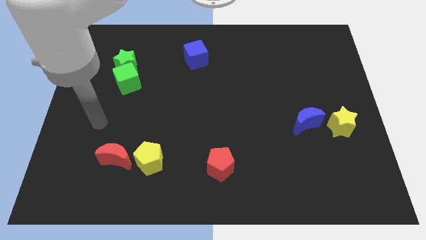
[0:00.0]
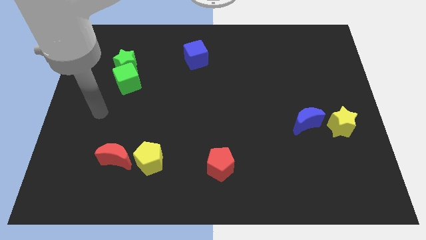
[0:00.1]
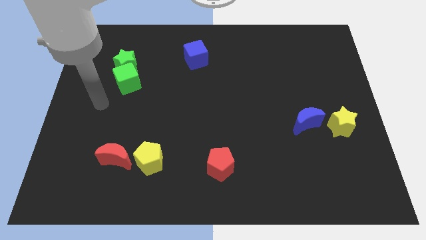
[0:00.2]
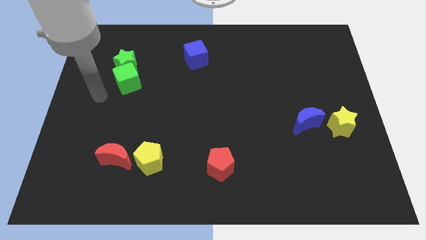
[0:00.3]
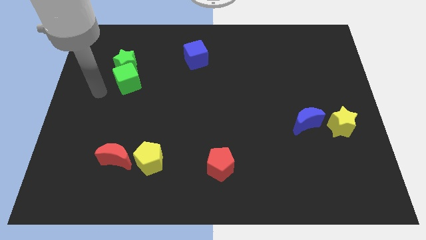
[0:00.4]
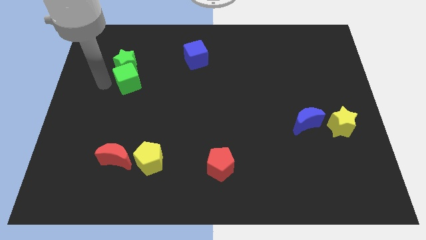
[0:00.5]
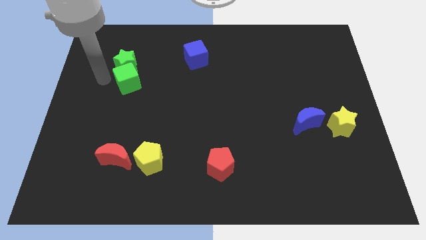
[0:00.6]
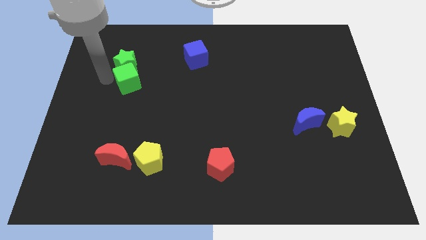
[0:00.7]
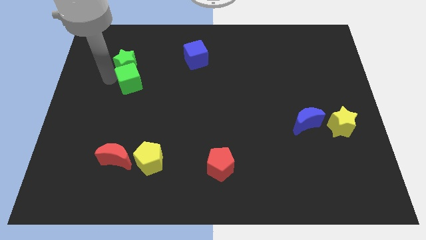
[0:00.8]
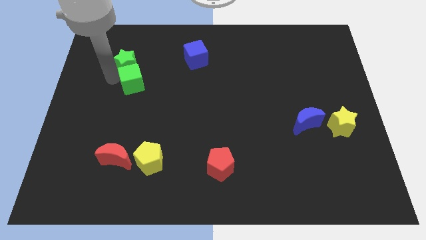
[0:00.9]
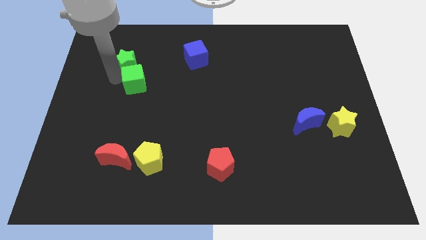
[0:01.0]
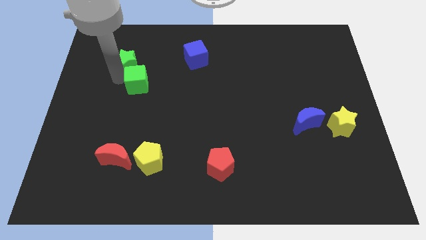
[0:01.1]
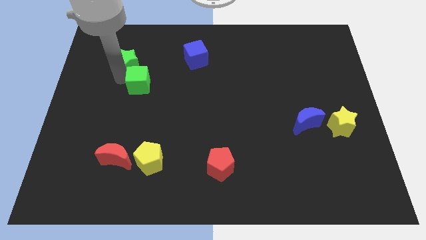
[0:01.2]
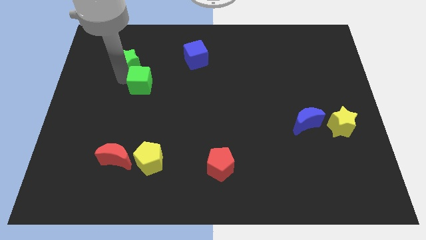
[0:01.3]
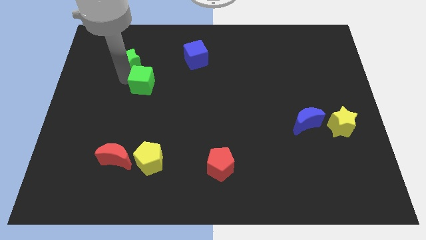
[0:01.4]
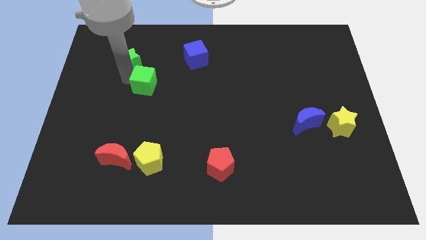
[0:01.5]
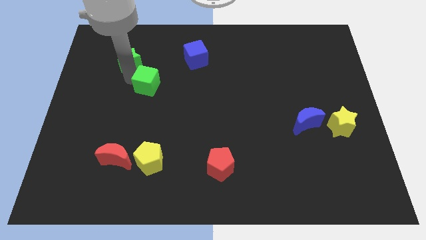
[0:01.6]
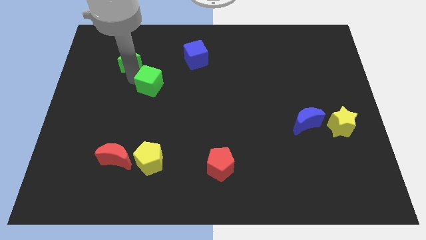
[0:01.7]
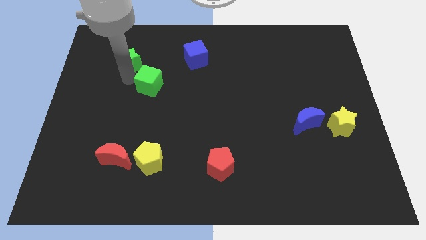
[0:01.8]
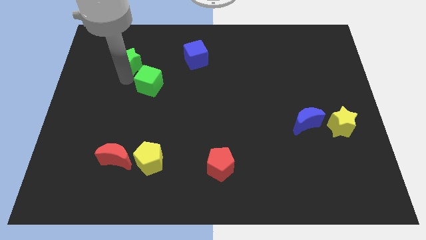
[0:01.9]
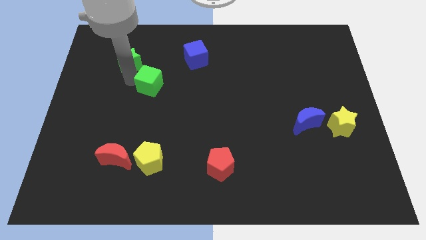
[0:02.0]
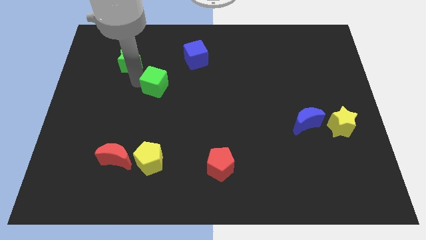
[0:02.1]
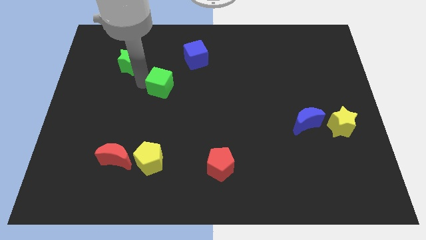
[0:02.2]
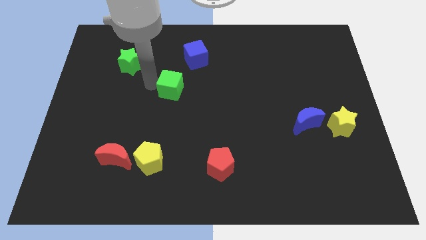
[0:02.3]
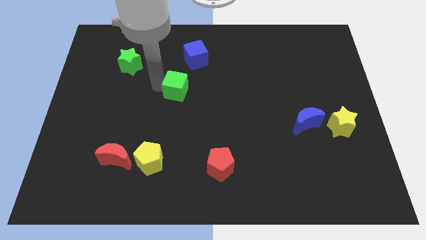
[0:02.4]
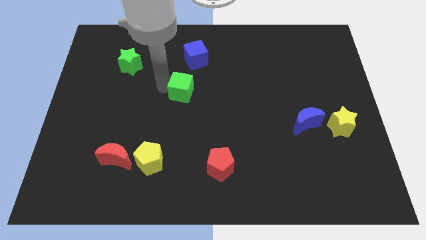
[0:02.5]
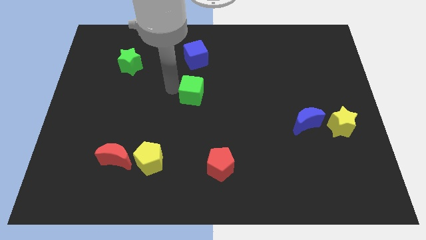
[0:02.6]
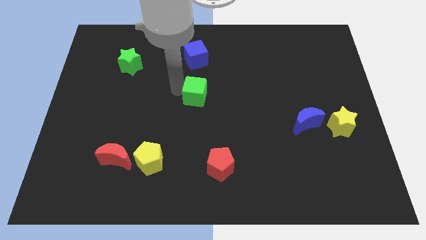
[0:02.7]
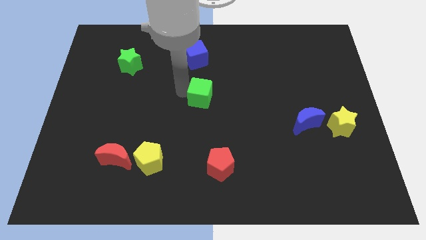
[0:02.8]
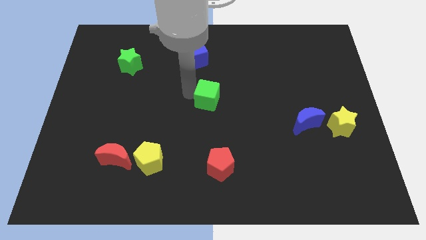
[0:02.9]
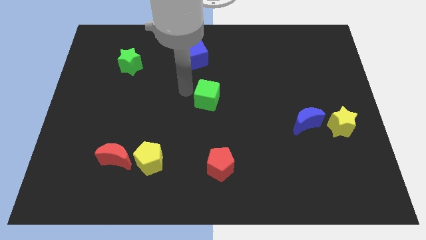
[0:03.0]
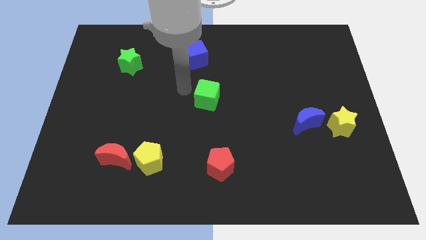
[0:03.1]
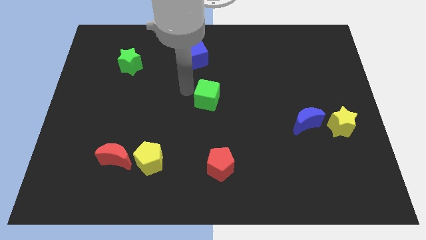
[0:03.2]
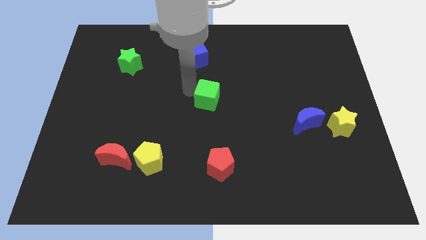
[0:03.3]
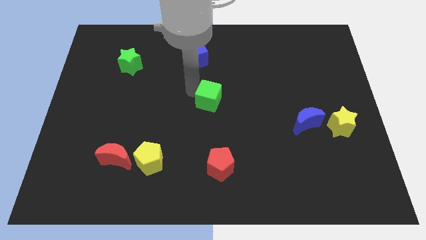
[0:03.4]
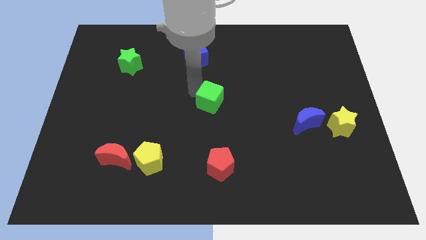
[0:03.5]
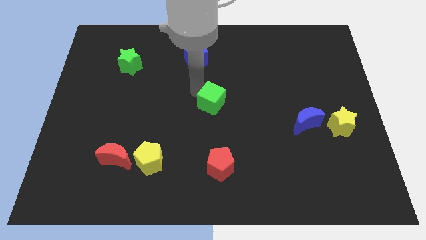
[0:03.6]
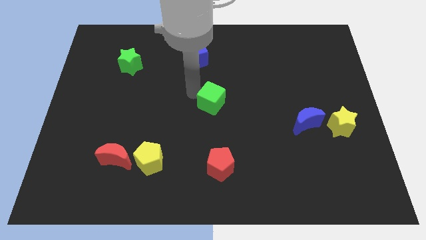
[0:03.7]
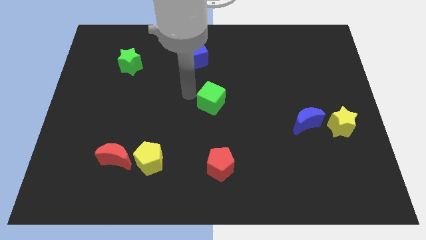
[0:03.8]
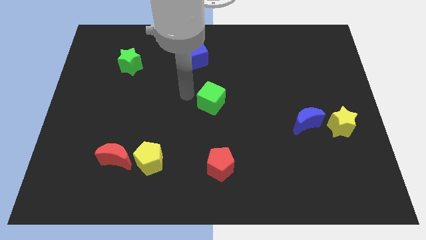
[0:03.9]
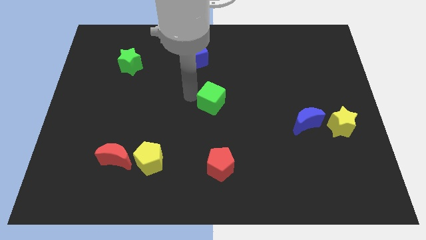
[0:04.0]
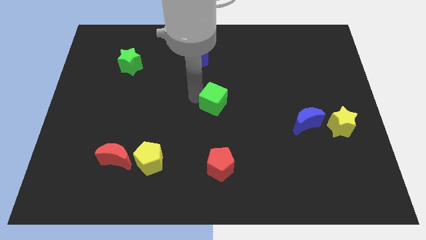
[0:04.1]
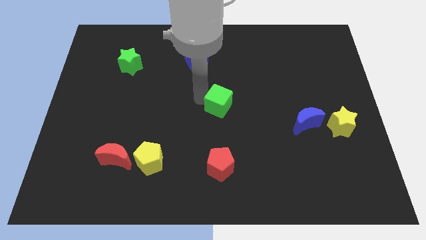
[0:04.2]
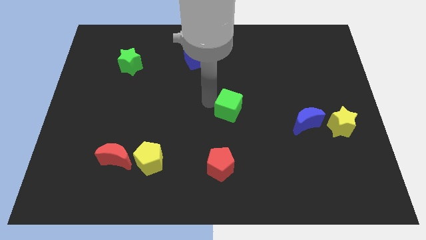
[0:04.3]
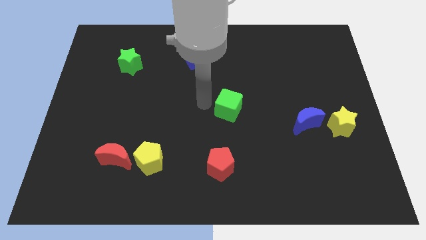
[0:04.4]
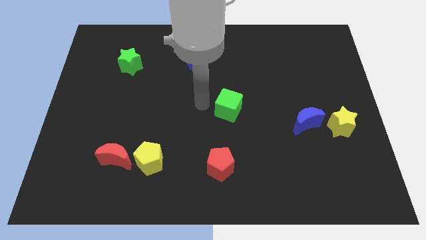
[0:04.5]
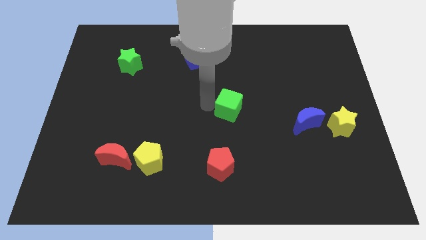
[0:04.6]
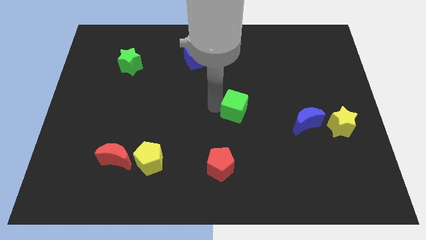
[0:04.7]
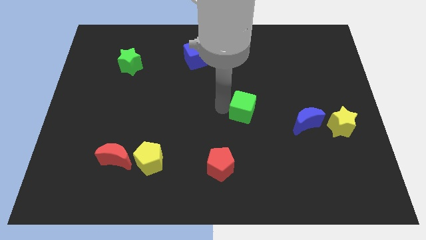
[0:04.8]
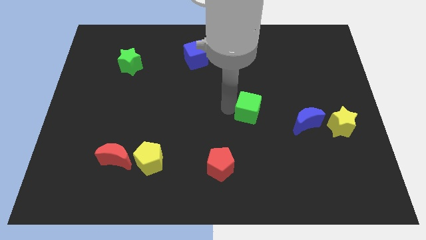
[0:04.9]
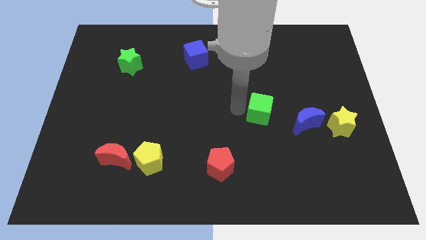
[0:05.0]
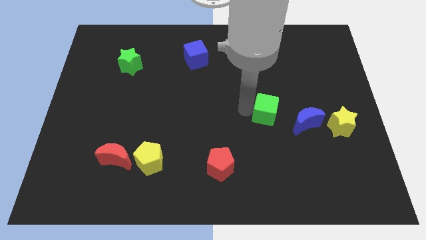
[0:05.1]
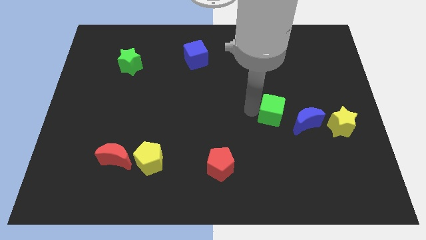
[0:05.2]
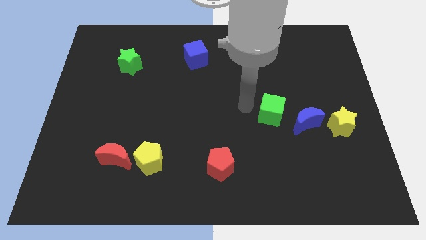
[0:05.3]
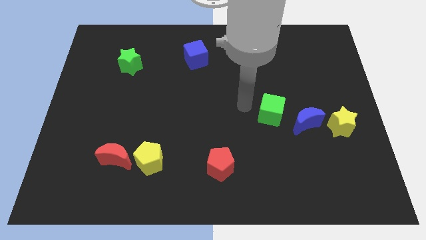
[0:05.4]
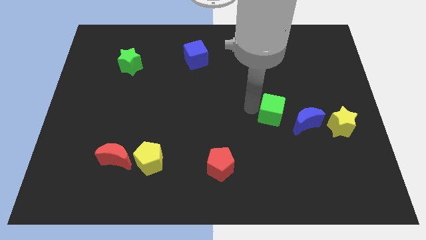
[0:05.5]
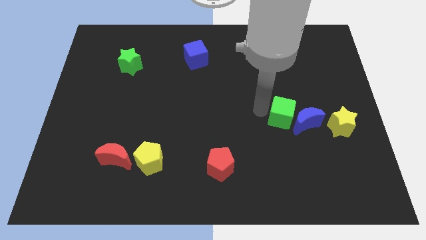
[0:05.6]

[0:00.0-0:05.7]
move the green cube towards the blue moon

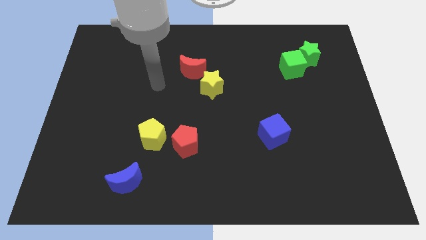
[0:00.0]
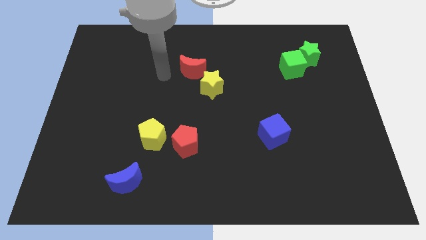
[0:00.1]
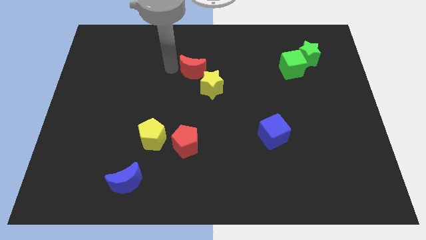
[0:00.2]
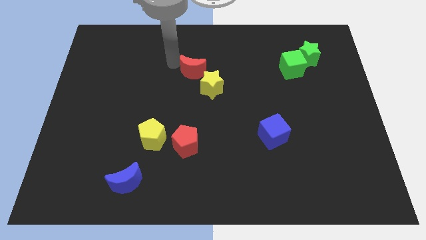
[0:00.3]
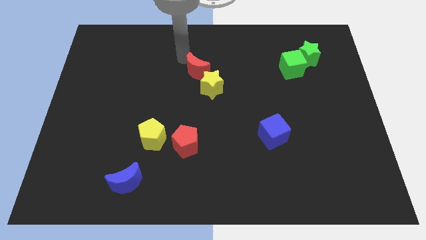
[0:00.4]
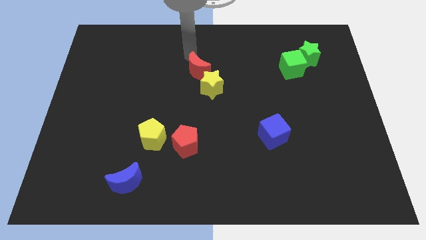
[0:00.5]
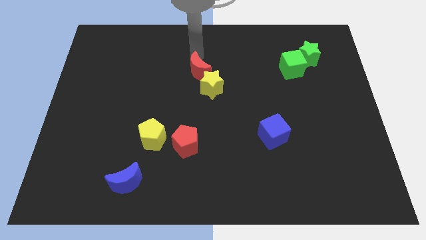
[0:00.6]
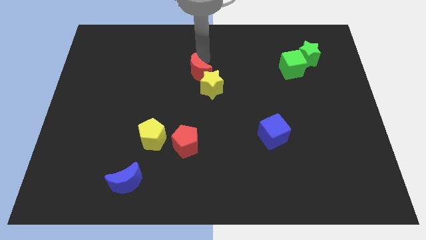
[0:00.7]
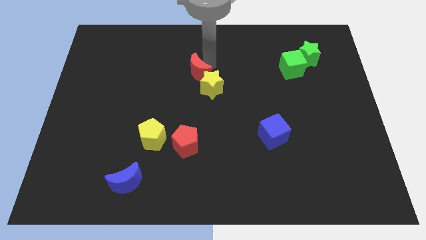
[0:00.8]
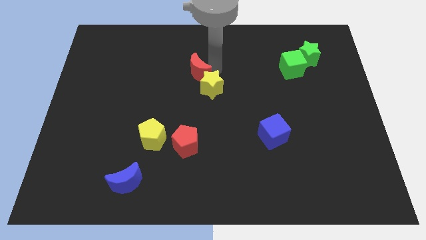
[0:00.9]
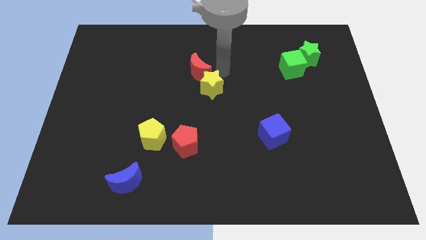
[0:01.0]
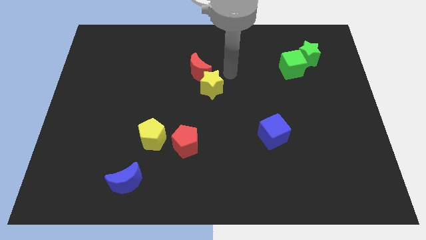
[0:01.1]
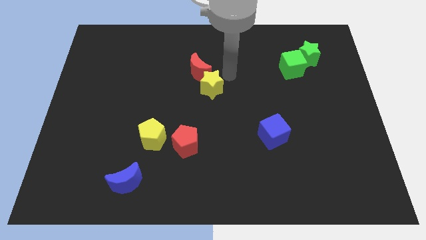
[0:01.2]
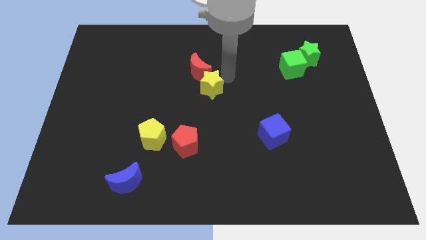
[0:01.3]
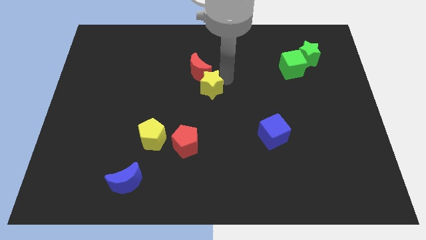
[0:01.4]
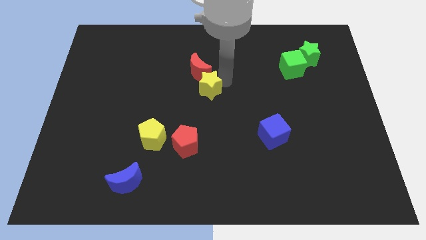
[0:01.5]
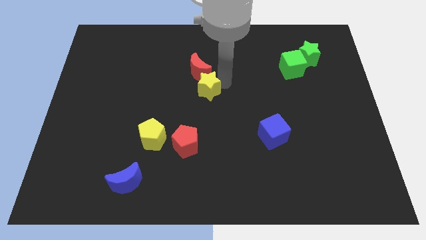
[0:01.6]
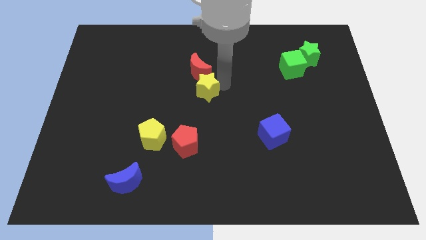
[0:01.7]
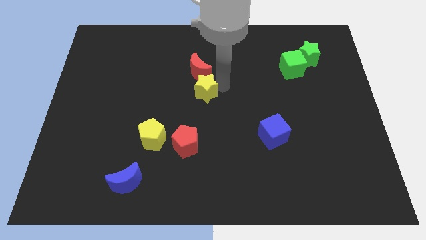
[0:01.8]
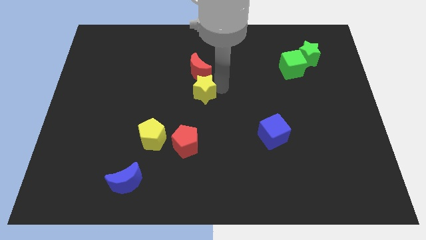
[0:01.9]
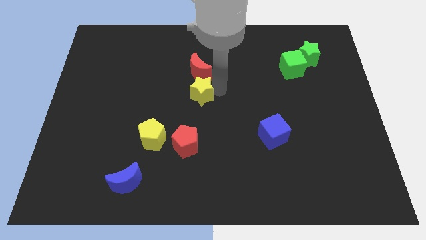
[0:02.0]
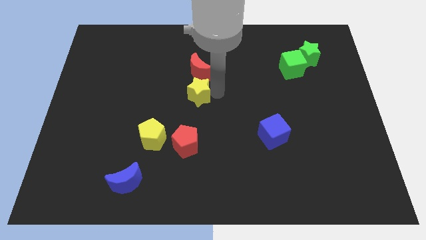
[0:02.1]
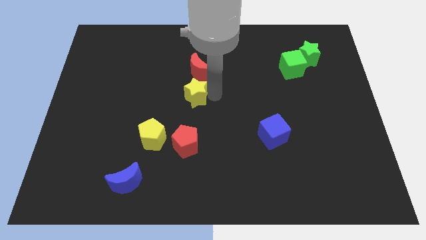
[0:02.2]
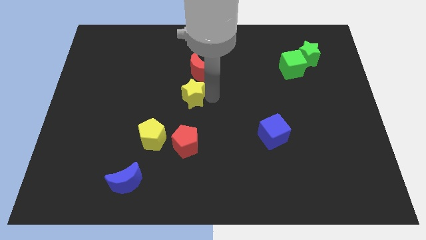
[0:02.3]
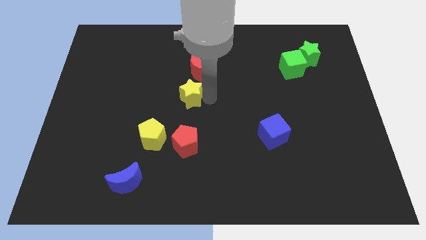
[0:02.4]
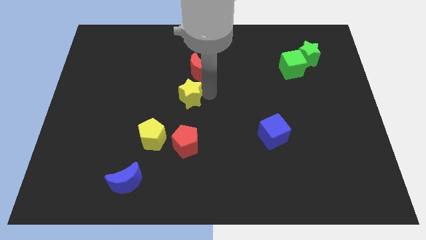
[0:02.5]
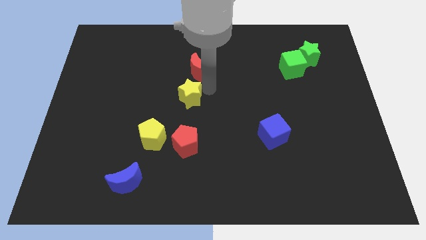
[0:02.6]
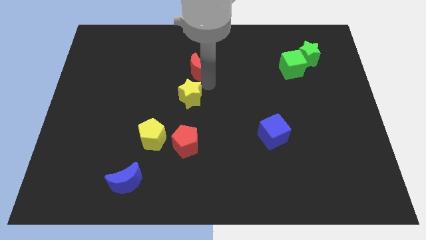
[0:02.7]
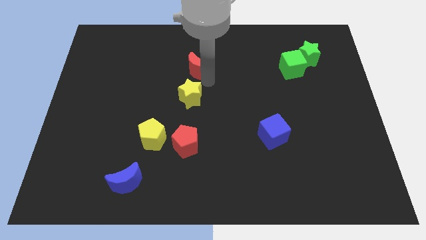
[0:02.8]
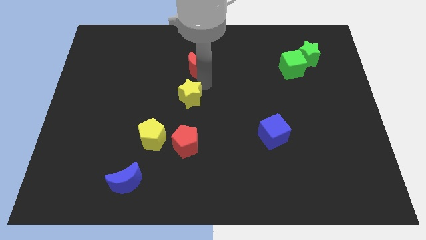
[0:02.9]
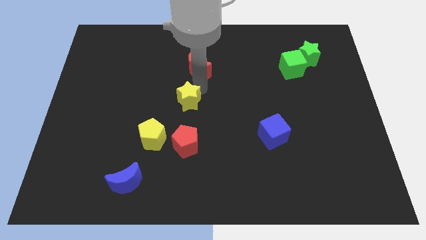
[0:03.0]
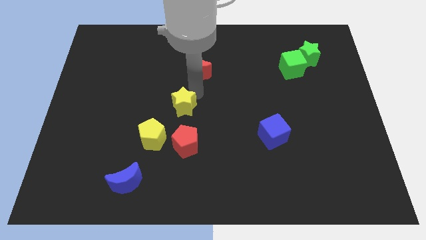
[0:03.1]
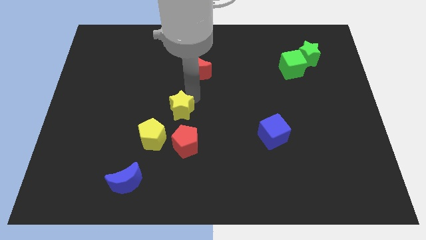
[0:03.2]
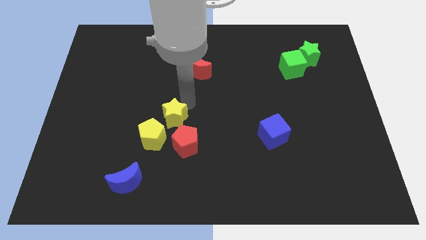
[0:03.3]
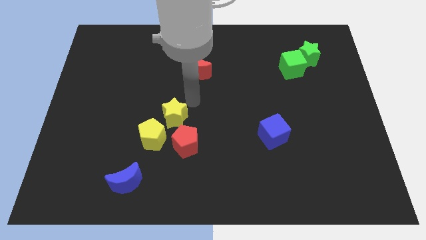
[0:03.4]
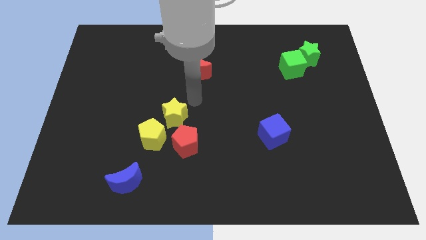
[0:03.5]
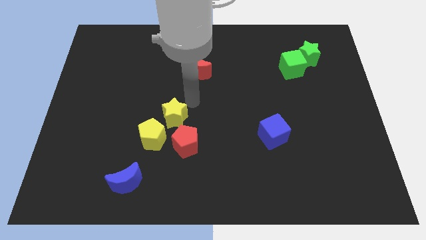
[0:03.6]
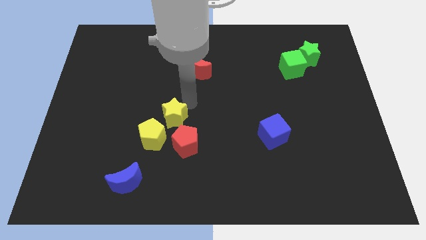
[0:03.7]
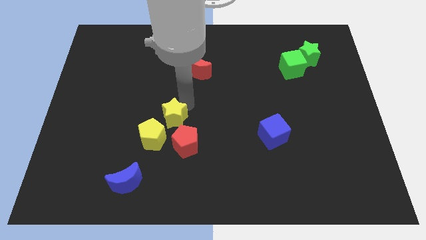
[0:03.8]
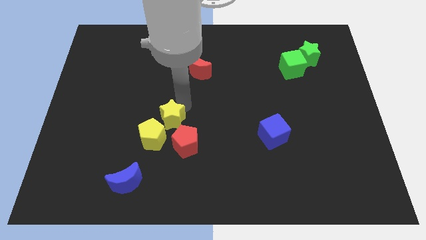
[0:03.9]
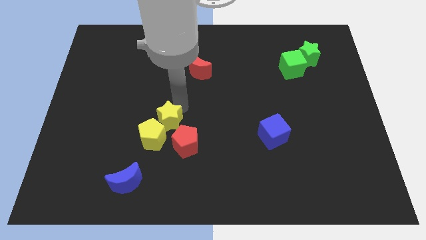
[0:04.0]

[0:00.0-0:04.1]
move the yellow star close to the yellow pentagon
